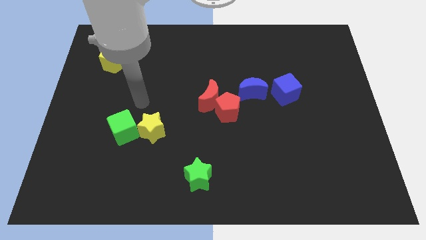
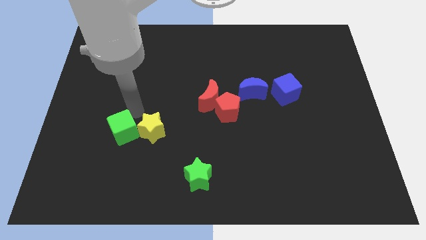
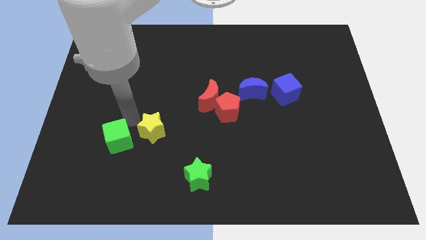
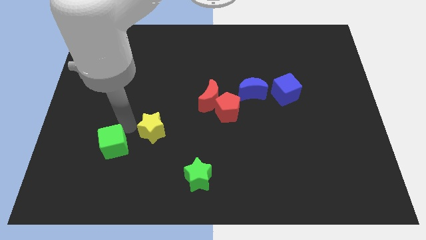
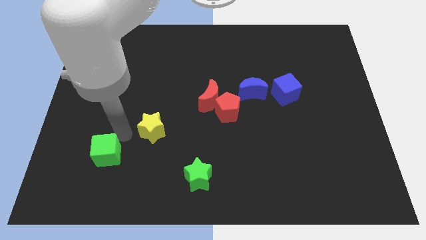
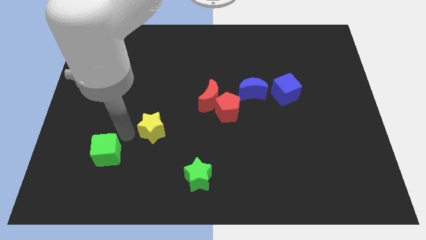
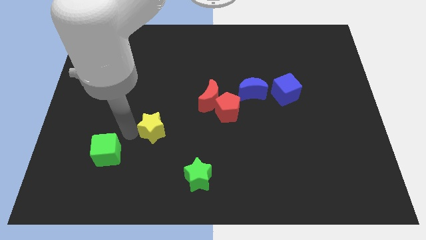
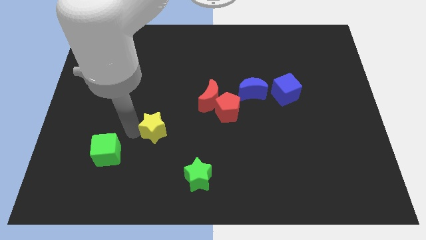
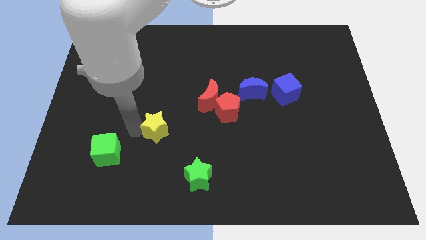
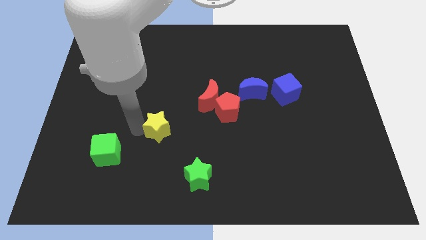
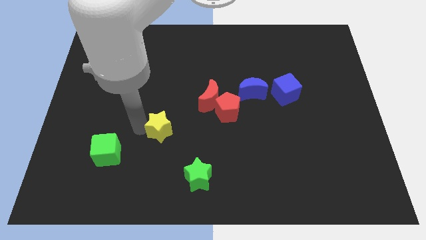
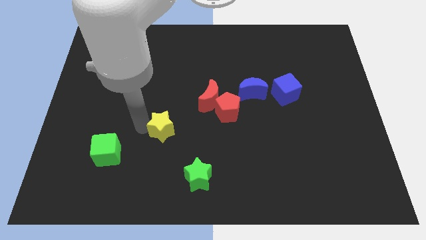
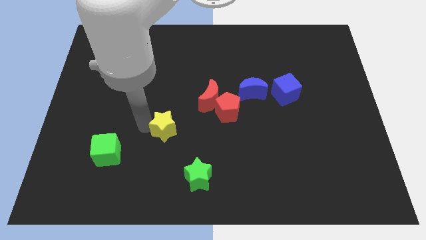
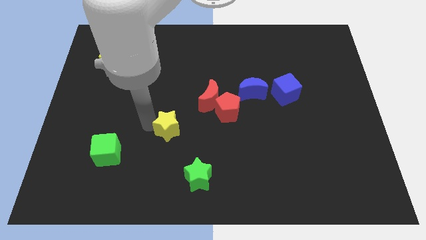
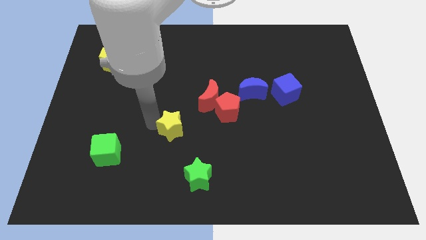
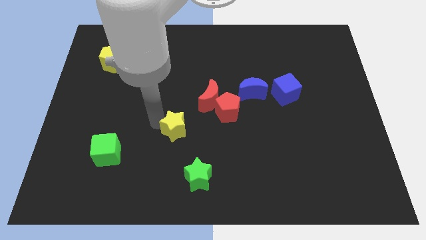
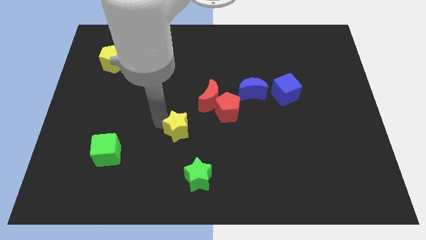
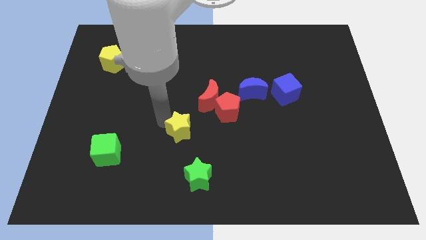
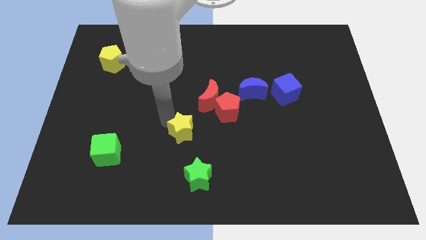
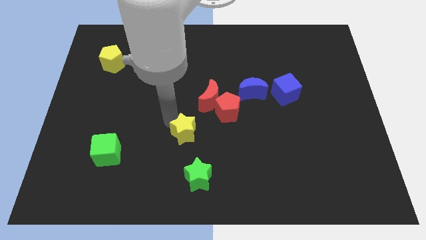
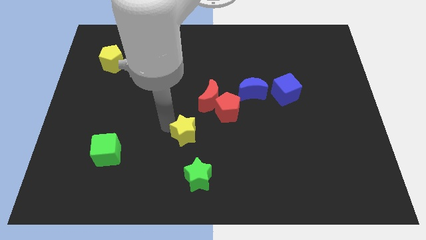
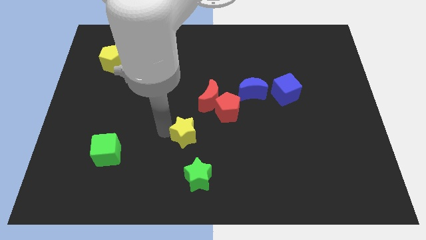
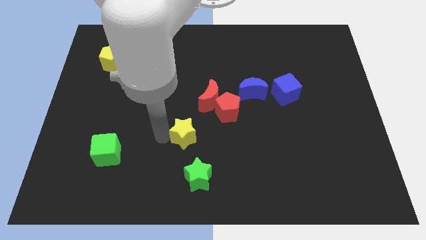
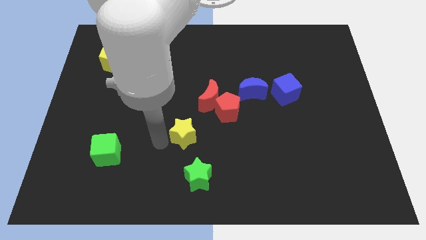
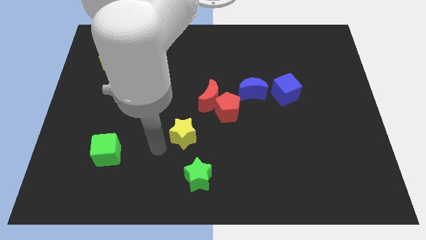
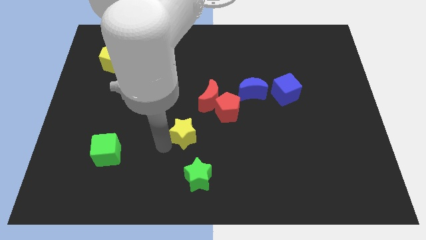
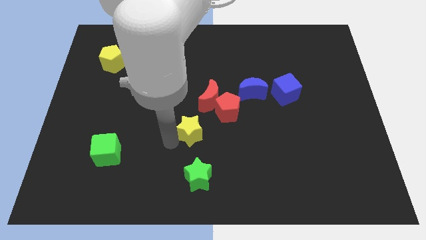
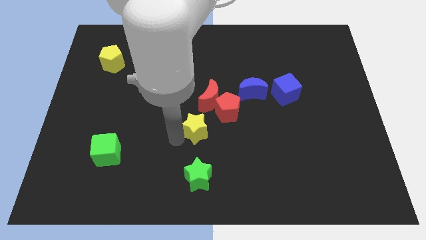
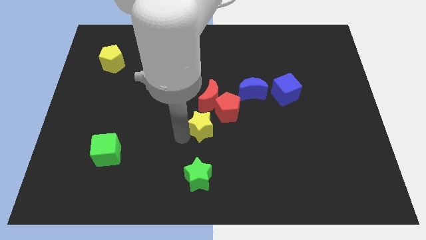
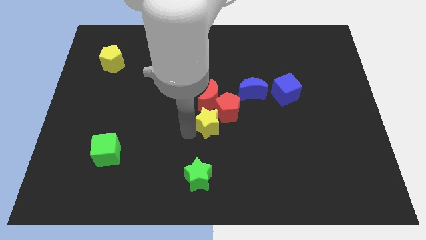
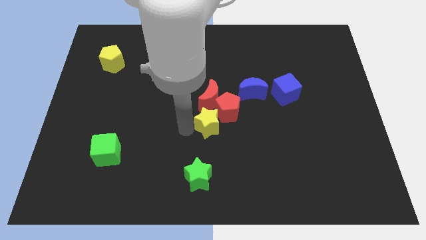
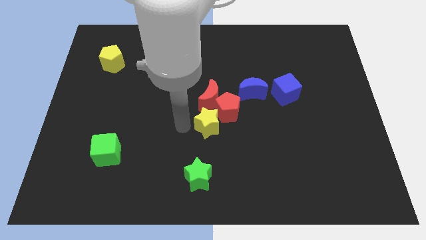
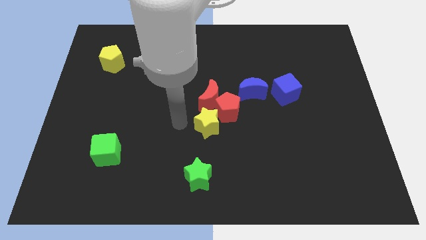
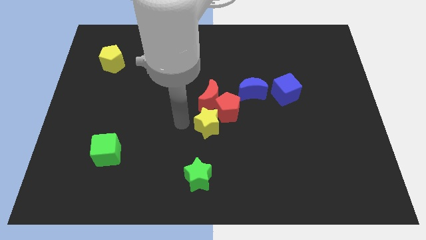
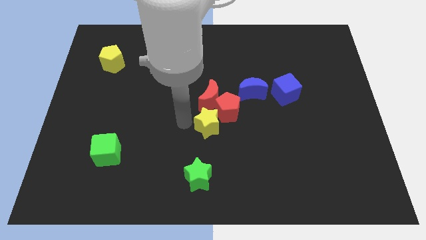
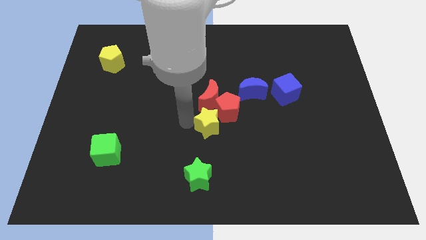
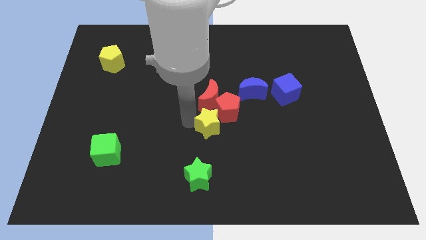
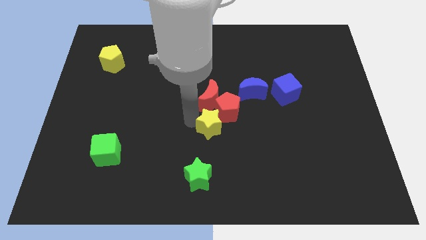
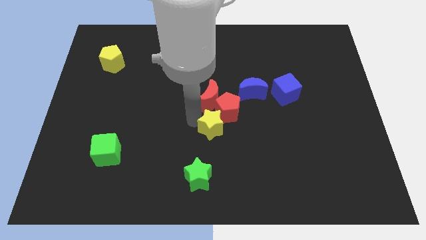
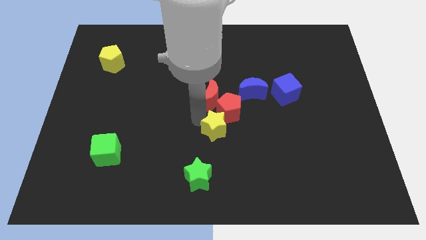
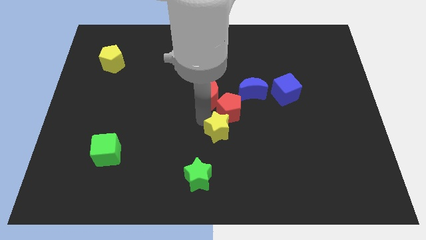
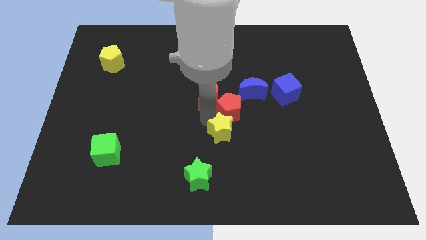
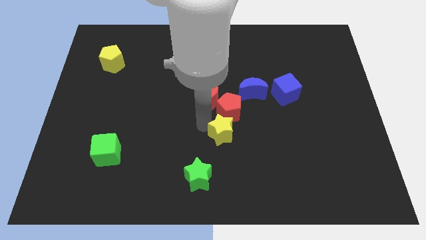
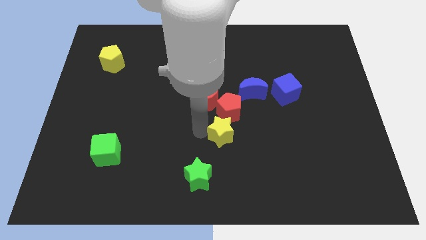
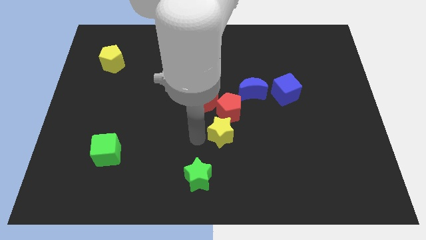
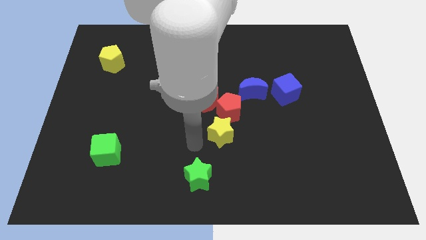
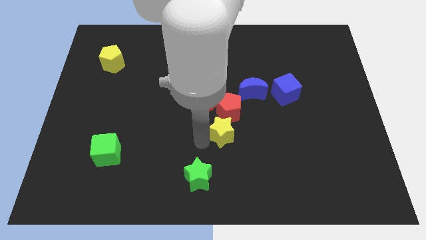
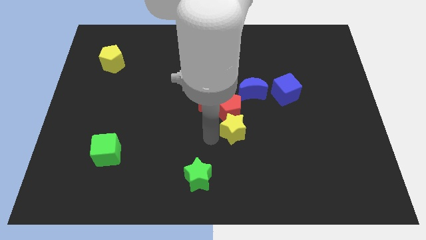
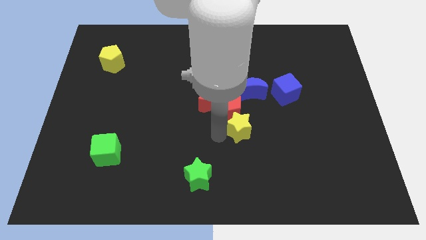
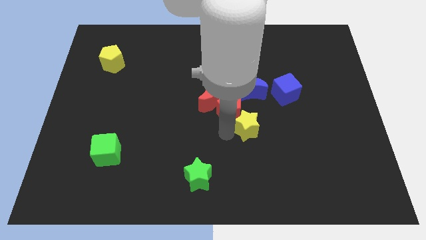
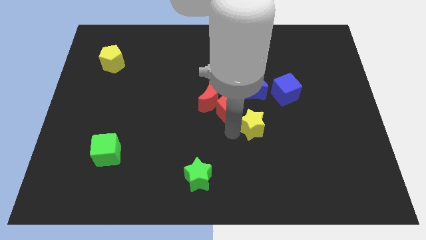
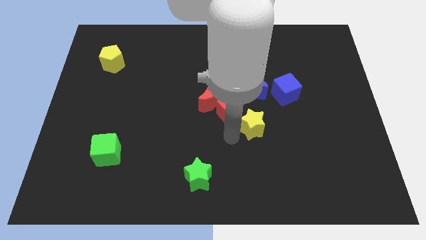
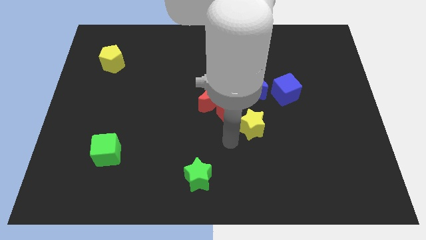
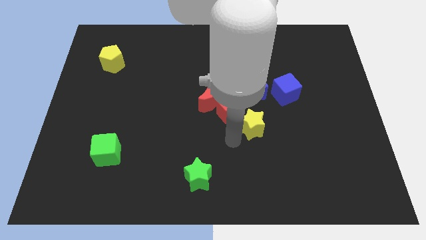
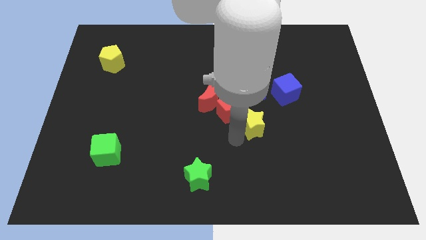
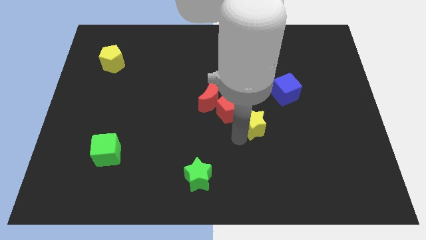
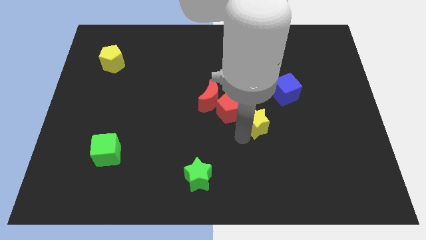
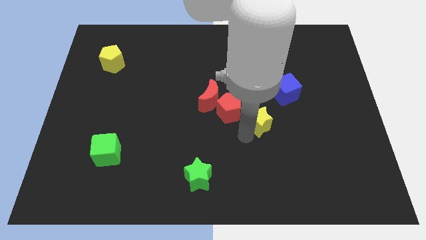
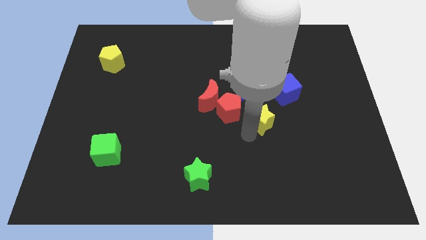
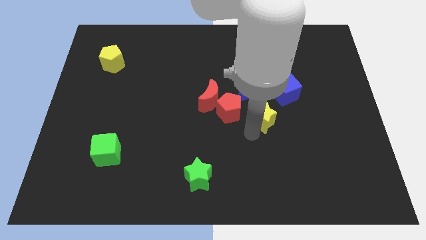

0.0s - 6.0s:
put the yellow star diagonally down and to the right of the blue moon

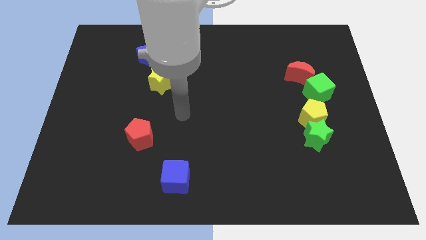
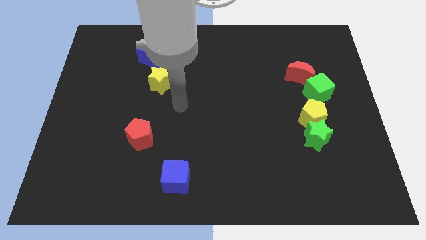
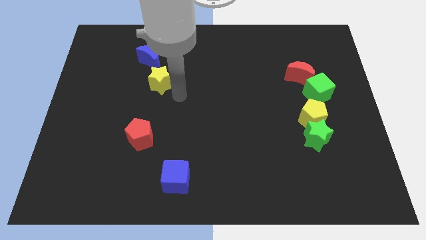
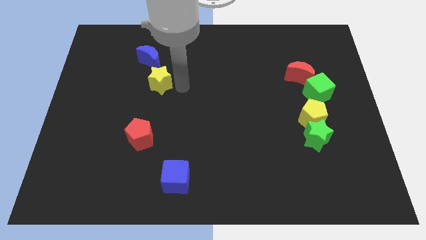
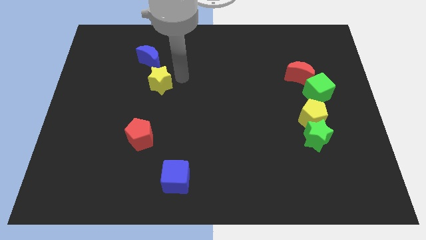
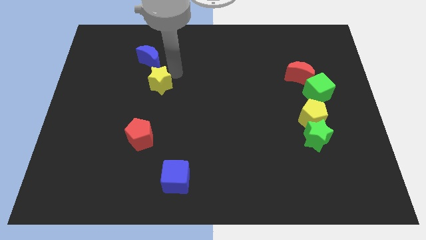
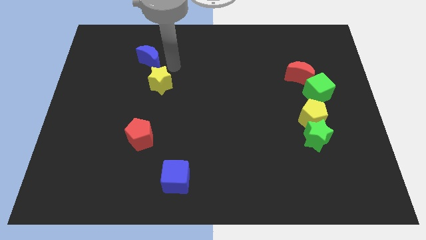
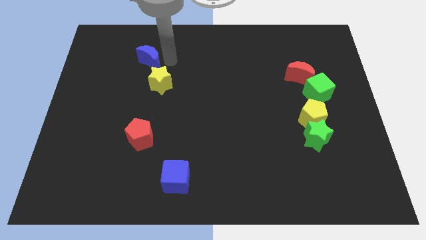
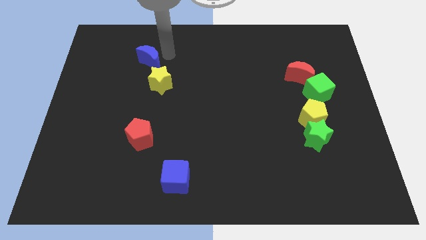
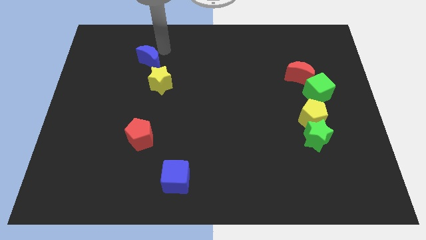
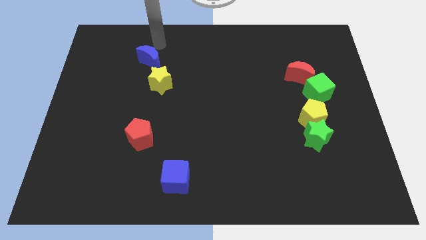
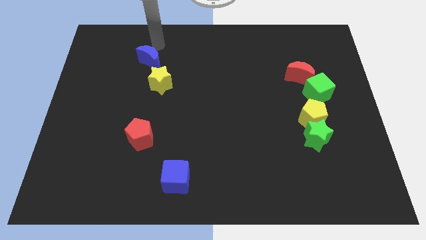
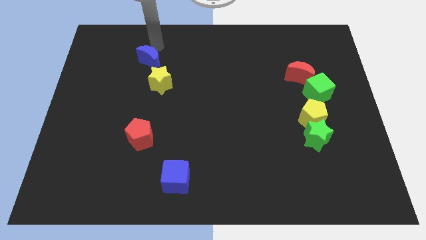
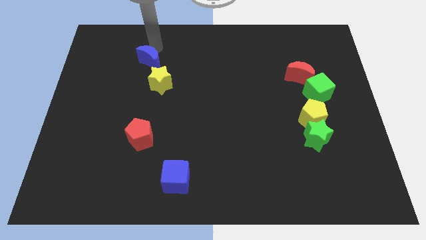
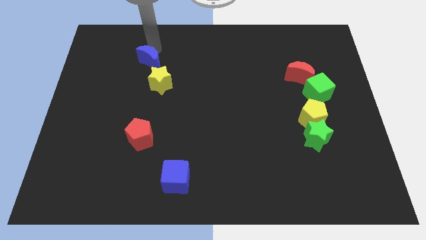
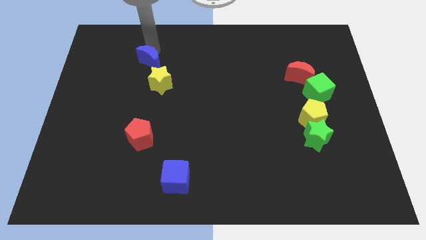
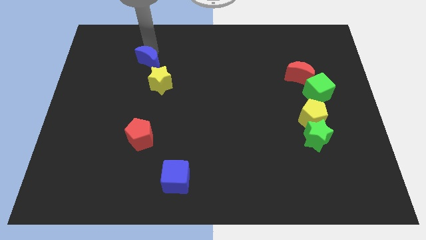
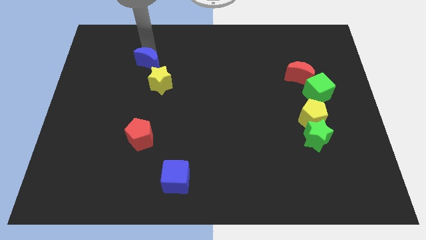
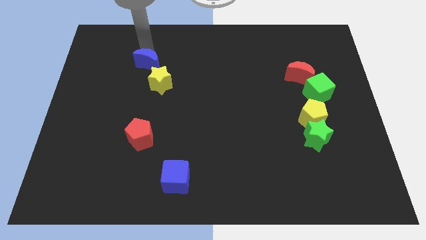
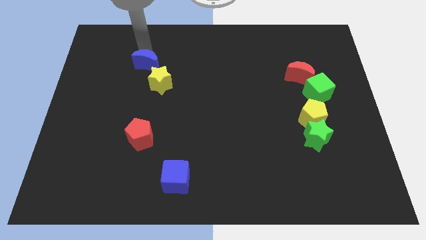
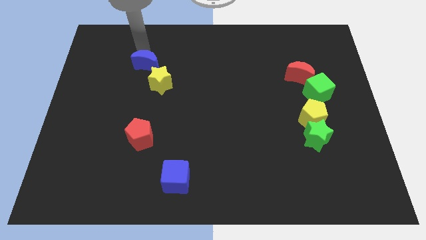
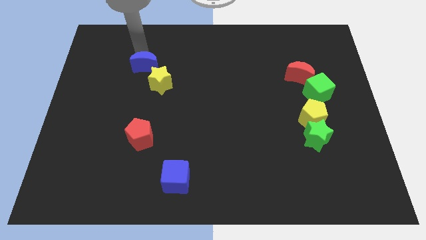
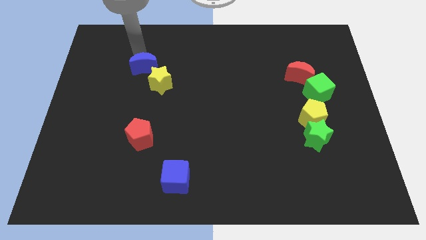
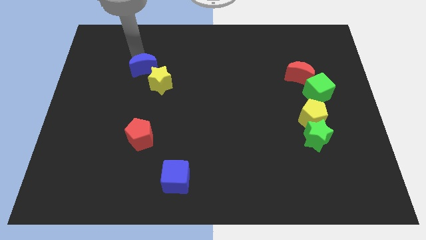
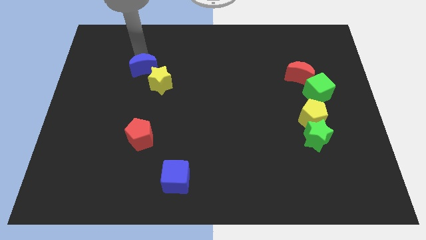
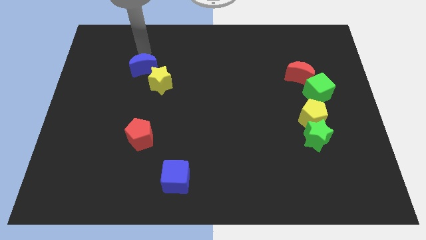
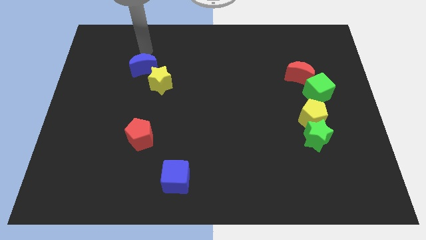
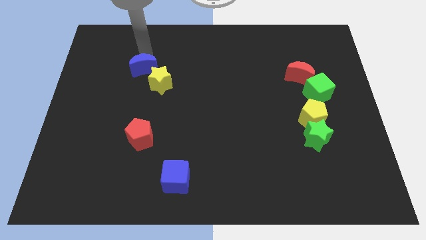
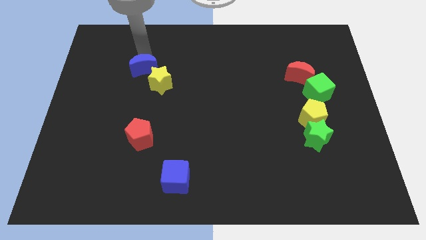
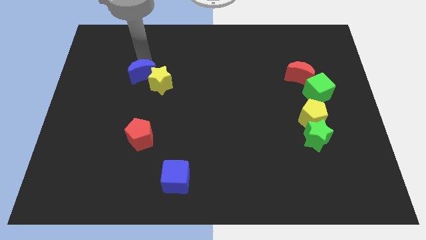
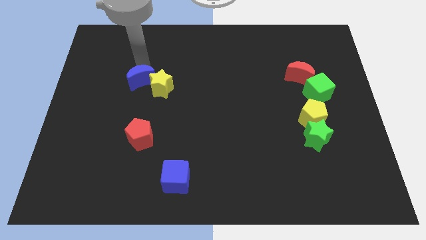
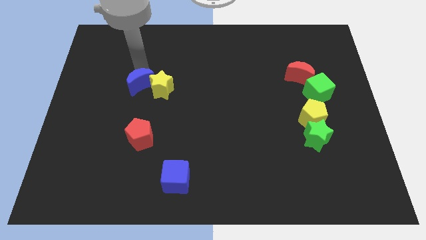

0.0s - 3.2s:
slide the blue moon to the top of the red pentagon
